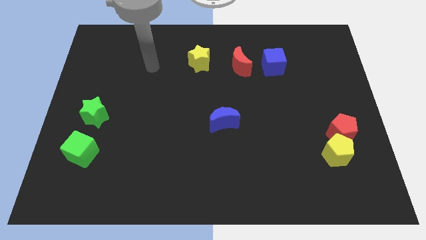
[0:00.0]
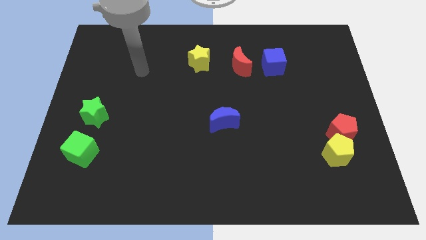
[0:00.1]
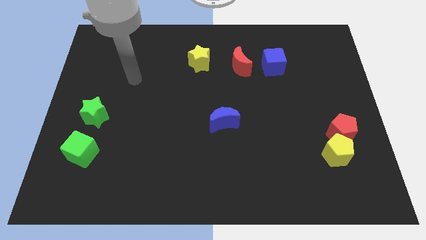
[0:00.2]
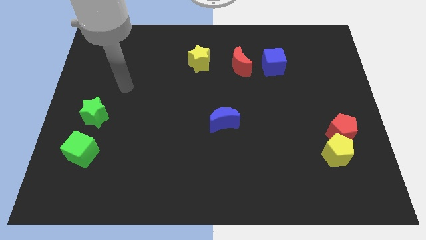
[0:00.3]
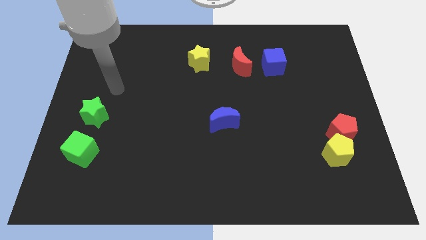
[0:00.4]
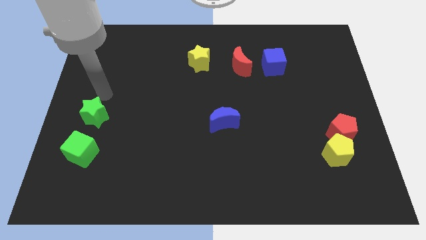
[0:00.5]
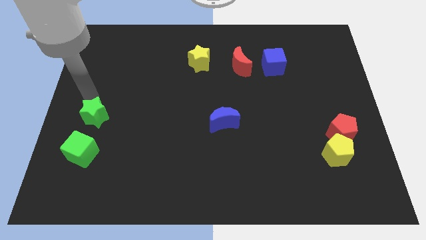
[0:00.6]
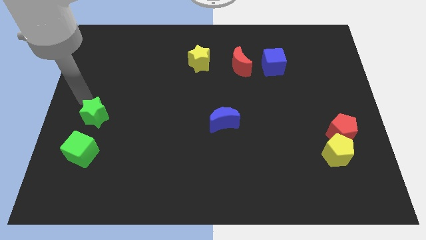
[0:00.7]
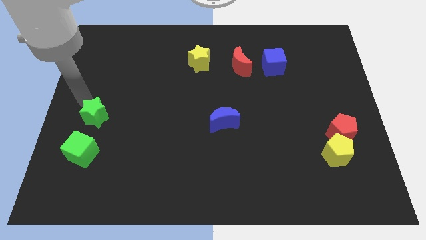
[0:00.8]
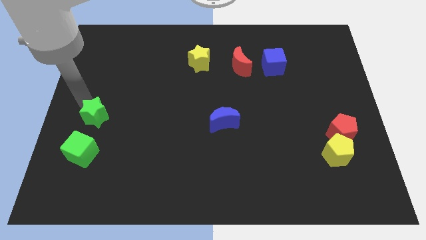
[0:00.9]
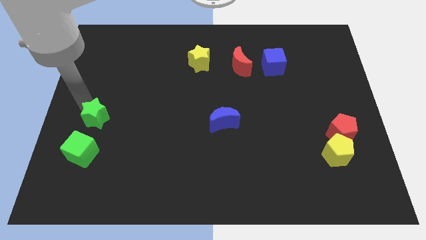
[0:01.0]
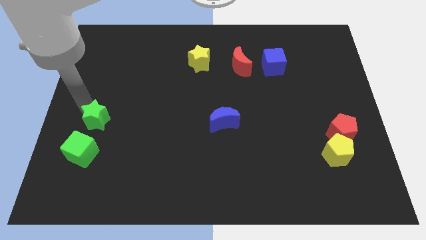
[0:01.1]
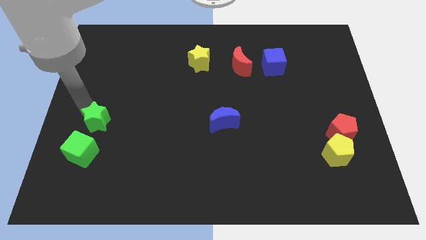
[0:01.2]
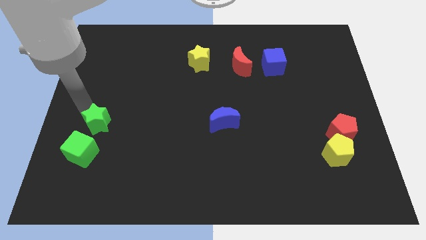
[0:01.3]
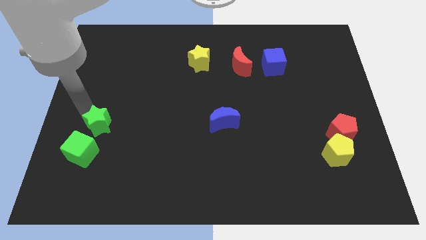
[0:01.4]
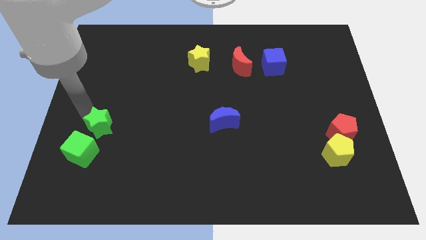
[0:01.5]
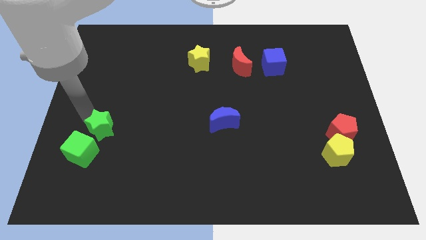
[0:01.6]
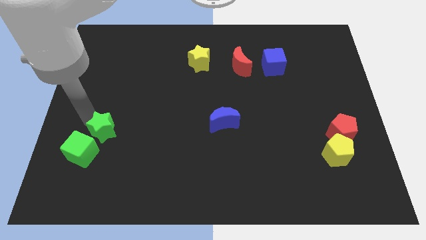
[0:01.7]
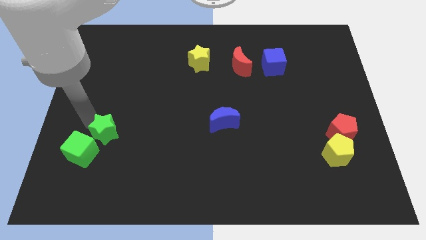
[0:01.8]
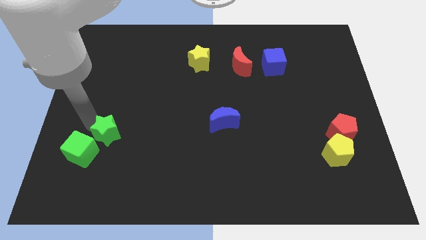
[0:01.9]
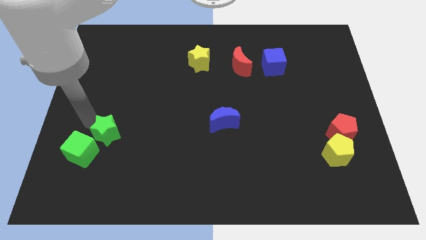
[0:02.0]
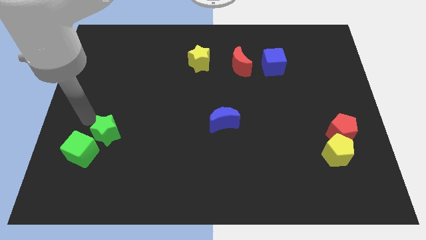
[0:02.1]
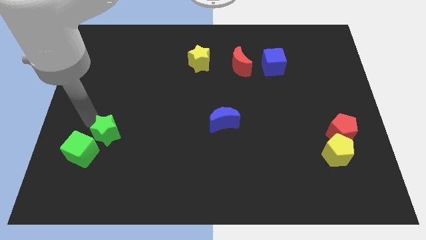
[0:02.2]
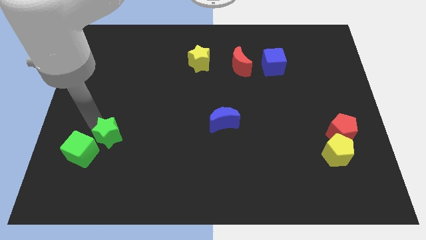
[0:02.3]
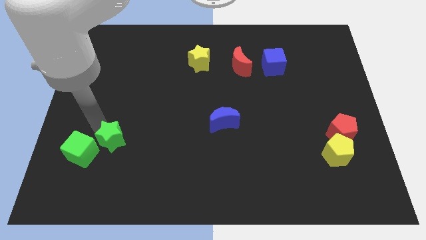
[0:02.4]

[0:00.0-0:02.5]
slightly slide the green star diagonally down and to the right

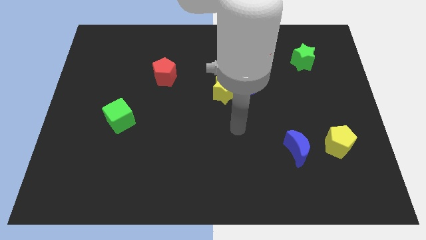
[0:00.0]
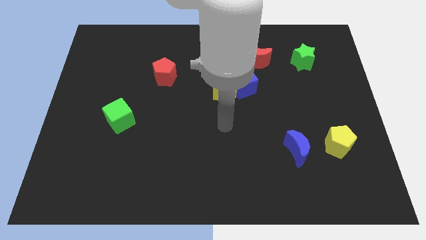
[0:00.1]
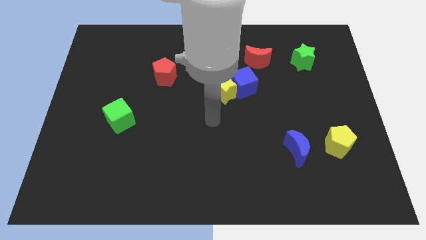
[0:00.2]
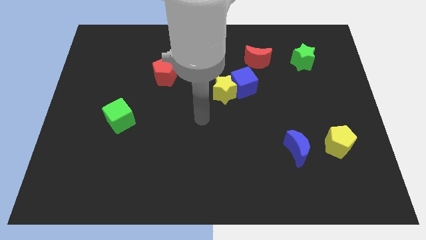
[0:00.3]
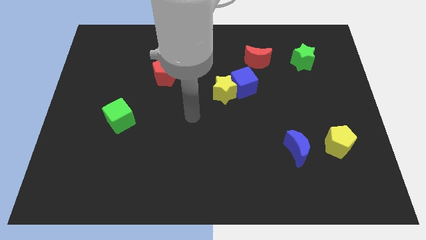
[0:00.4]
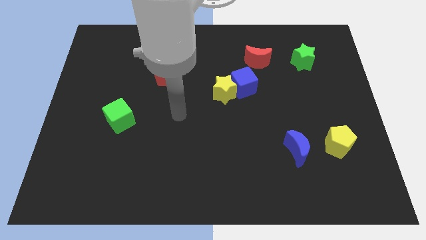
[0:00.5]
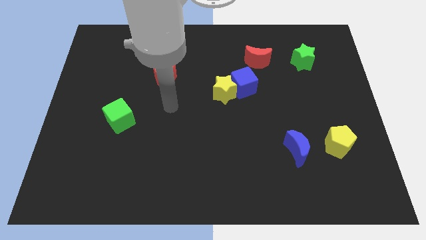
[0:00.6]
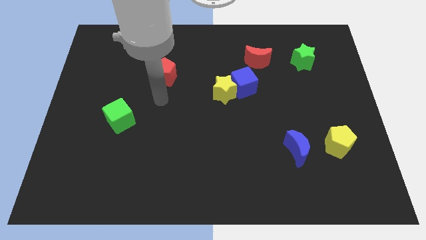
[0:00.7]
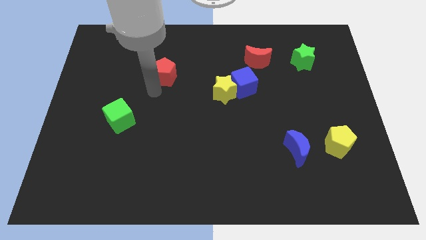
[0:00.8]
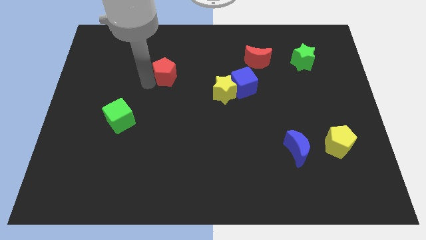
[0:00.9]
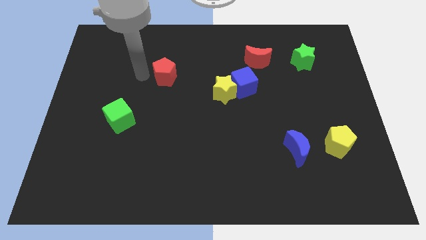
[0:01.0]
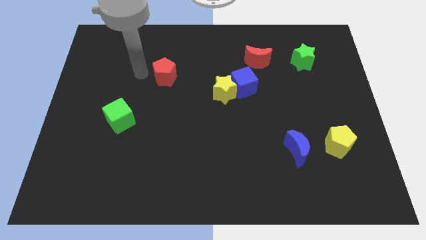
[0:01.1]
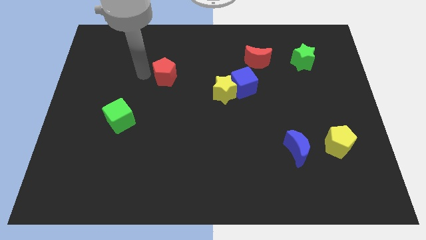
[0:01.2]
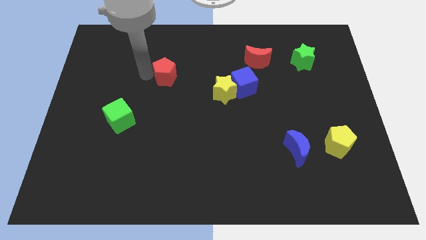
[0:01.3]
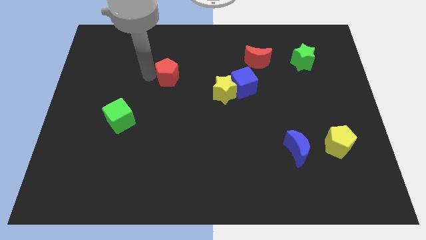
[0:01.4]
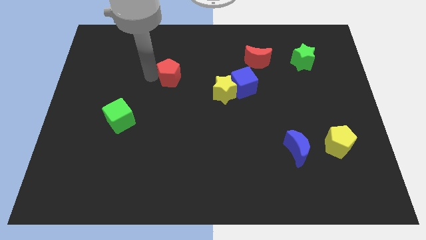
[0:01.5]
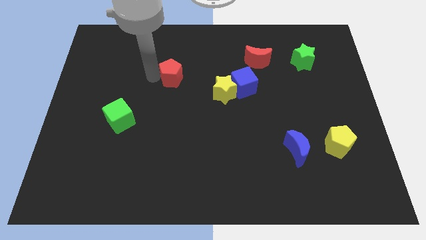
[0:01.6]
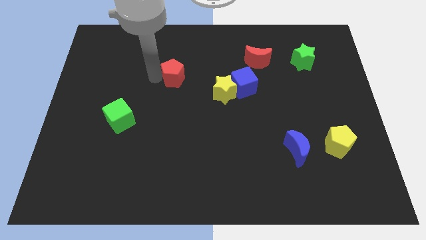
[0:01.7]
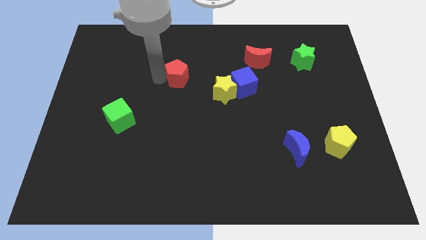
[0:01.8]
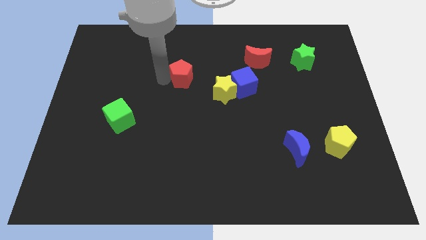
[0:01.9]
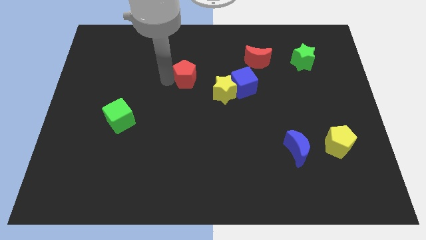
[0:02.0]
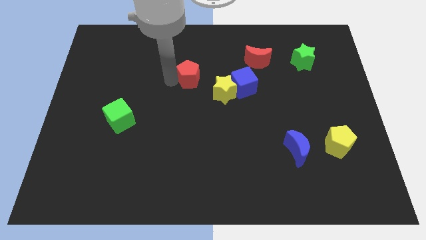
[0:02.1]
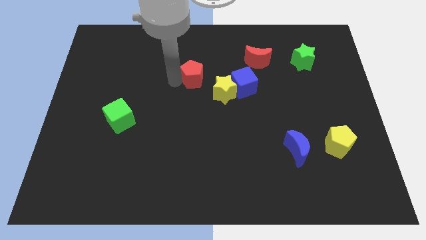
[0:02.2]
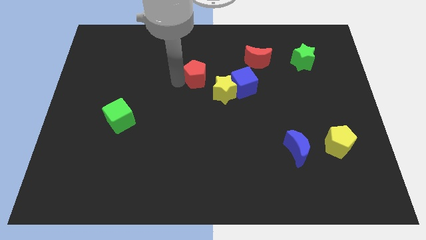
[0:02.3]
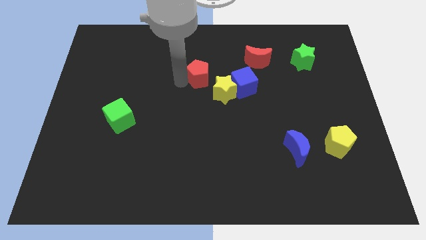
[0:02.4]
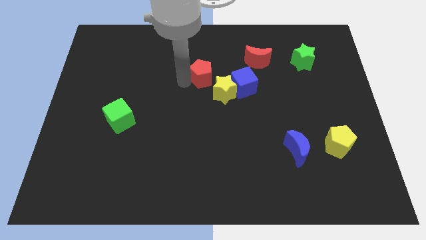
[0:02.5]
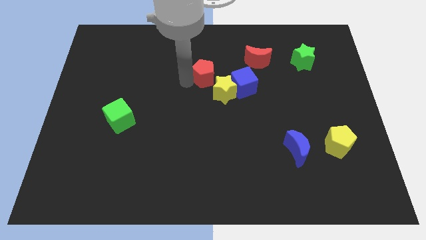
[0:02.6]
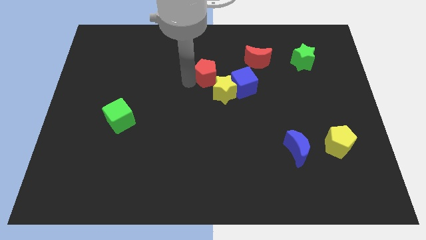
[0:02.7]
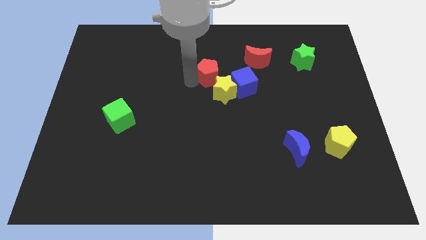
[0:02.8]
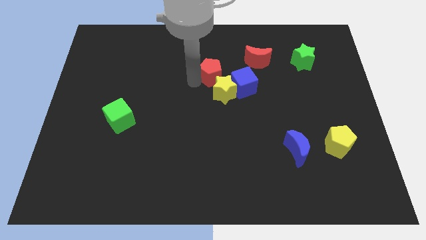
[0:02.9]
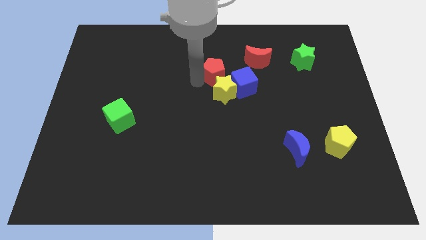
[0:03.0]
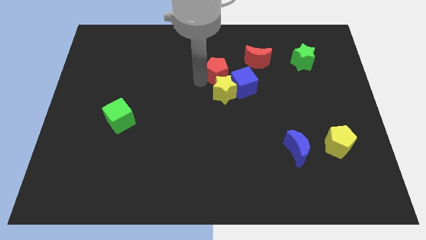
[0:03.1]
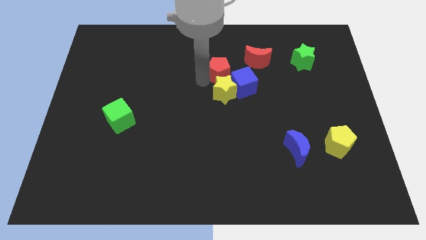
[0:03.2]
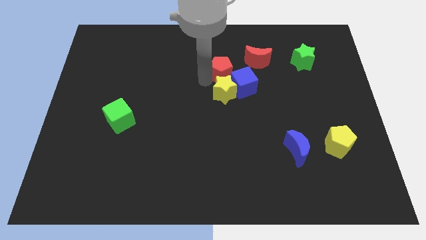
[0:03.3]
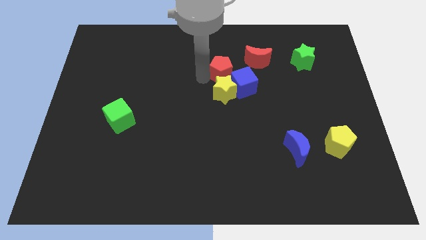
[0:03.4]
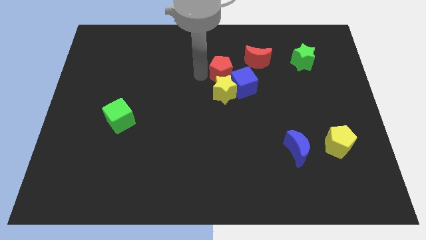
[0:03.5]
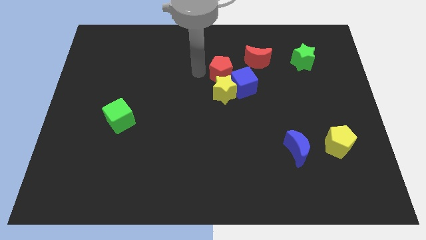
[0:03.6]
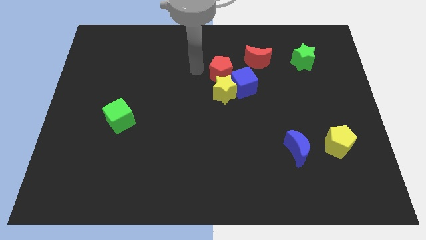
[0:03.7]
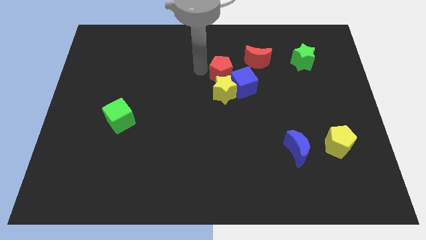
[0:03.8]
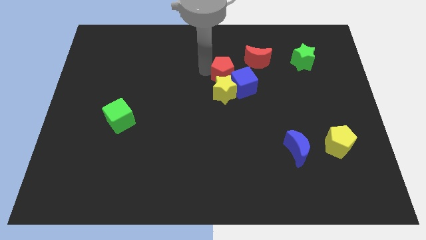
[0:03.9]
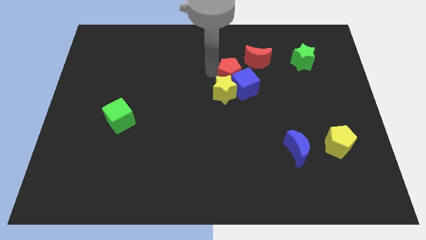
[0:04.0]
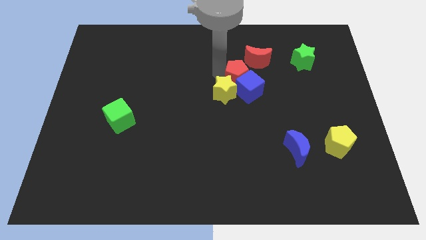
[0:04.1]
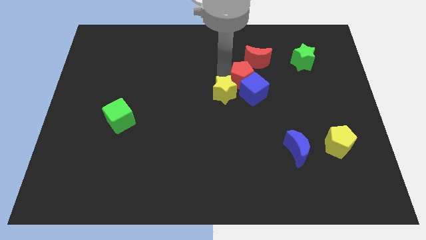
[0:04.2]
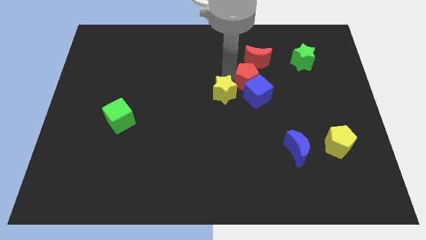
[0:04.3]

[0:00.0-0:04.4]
push the red pentagon right

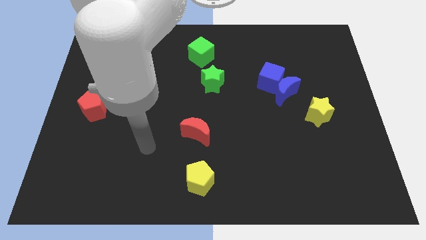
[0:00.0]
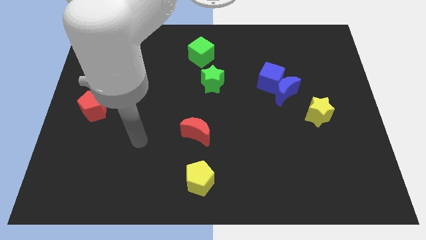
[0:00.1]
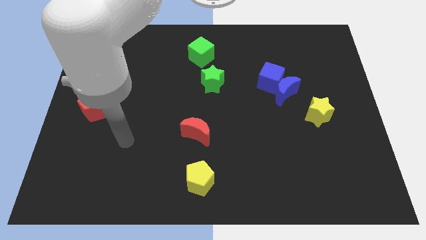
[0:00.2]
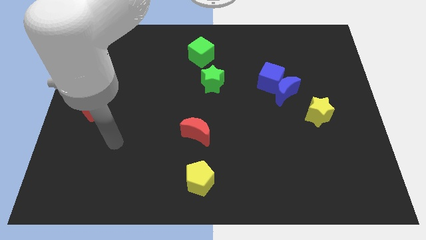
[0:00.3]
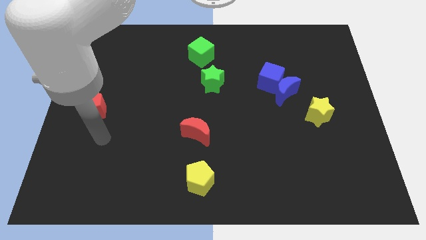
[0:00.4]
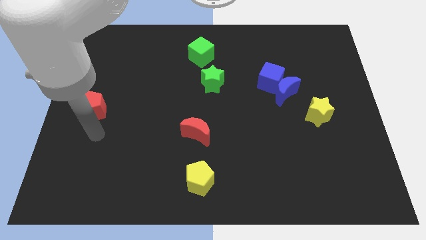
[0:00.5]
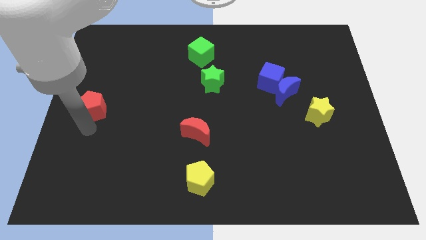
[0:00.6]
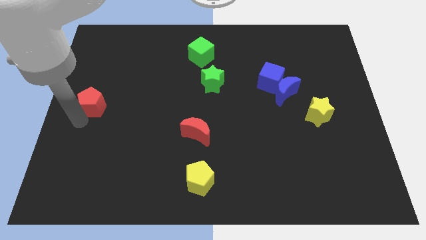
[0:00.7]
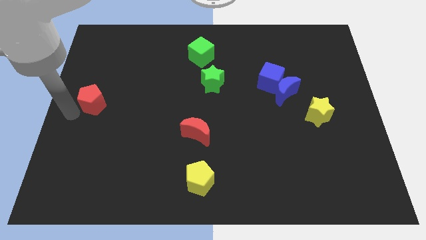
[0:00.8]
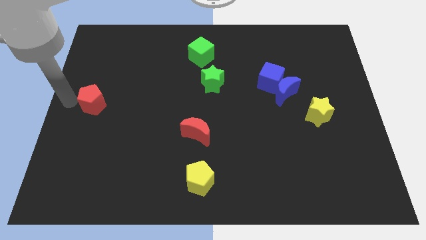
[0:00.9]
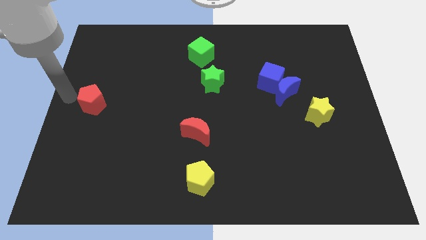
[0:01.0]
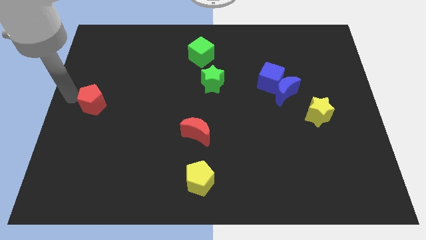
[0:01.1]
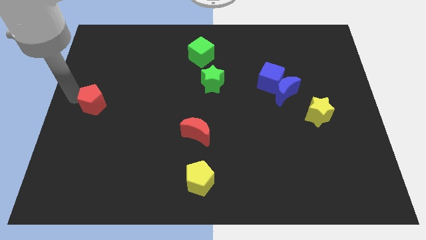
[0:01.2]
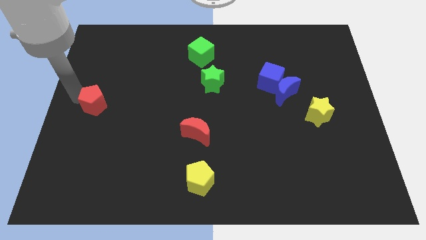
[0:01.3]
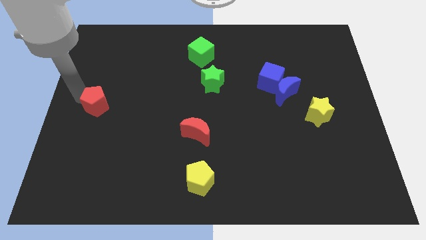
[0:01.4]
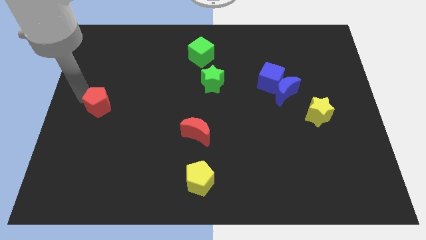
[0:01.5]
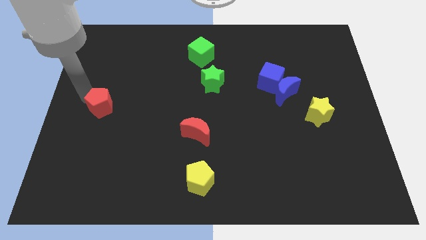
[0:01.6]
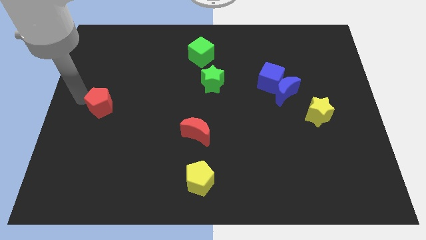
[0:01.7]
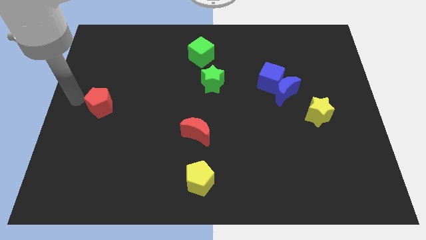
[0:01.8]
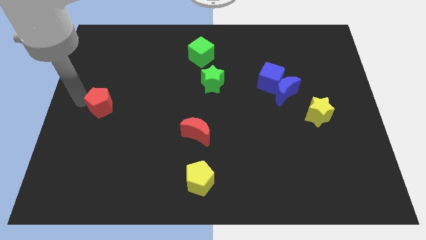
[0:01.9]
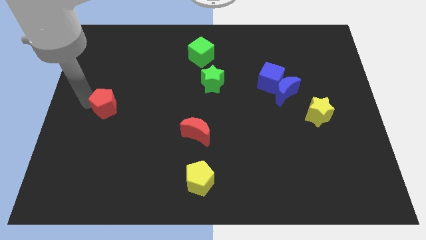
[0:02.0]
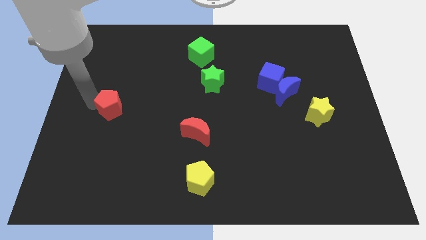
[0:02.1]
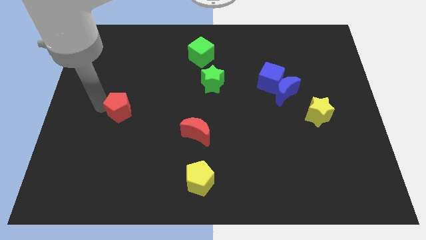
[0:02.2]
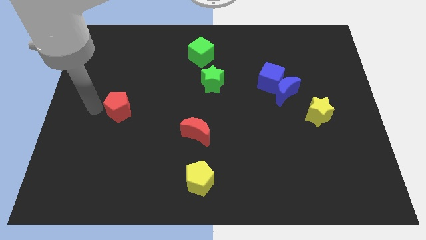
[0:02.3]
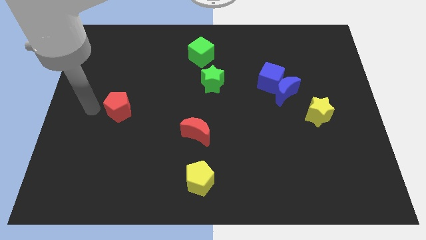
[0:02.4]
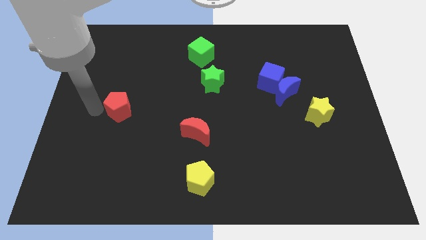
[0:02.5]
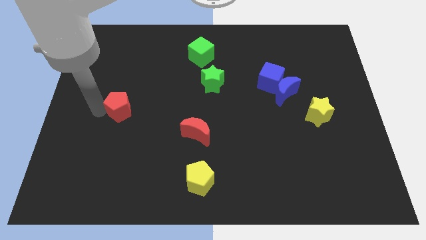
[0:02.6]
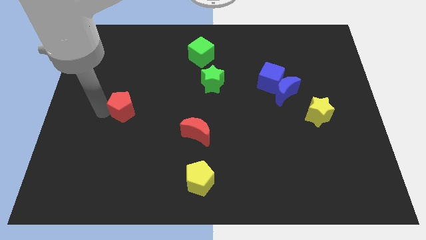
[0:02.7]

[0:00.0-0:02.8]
slightly slide the red pentagon to the right
